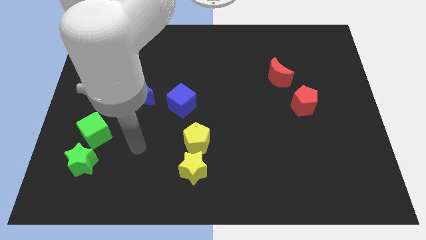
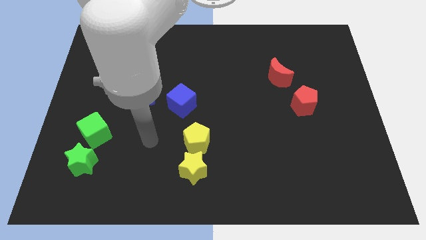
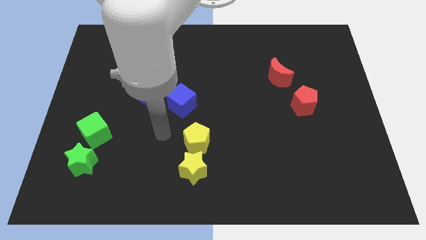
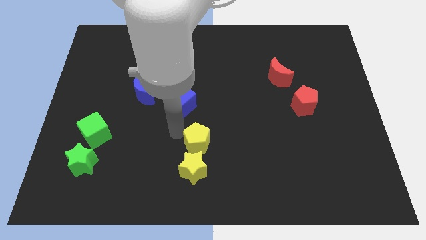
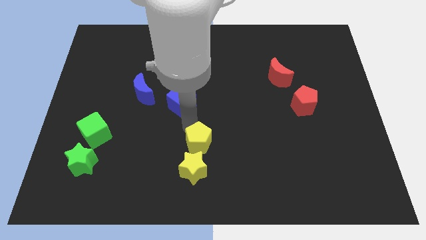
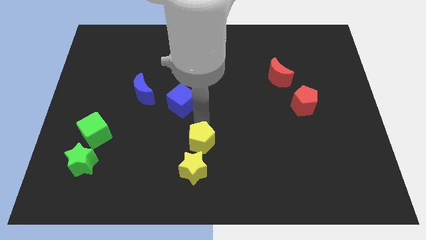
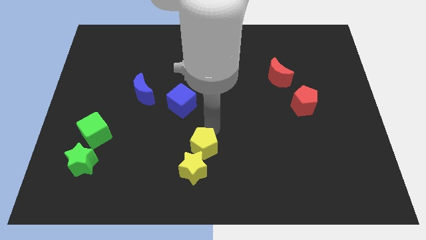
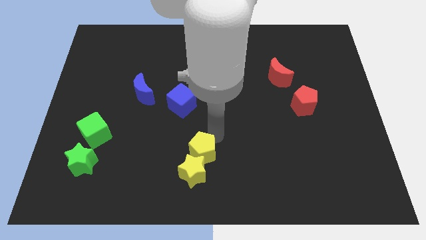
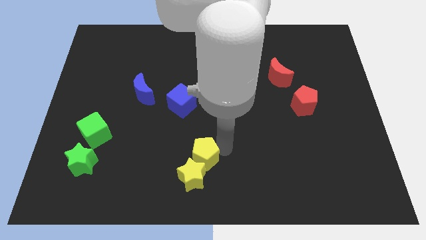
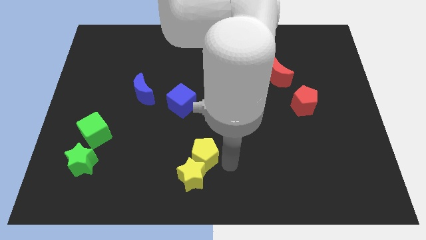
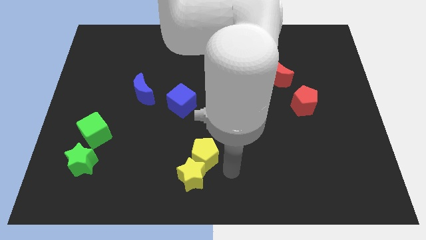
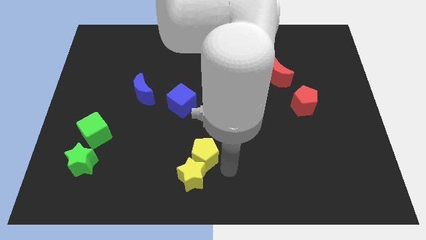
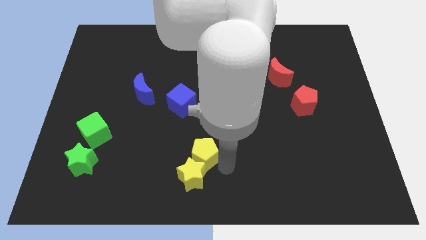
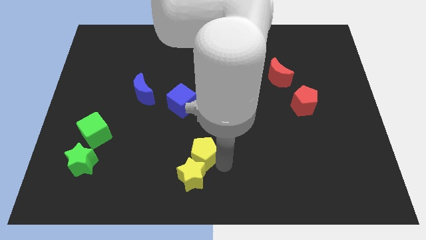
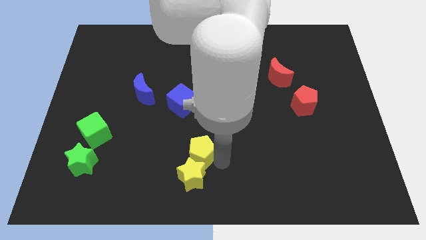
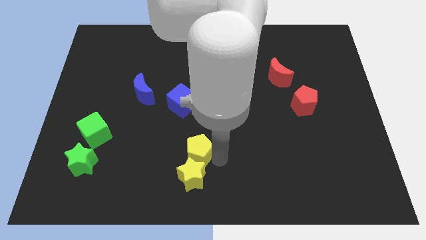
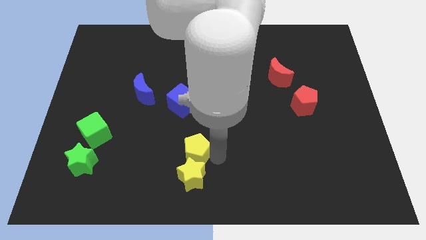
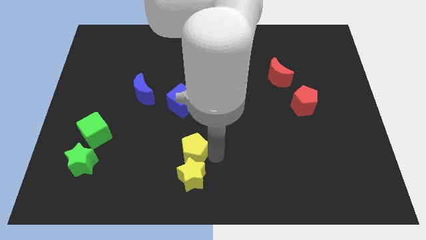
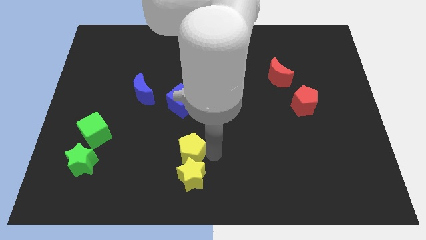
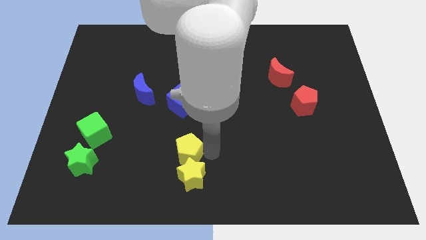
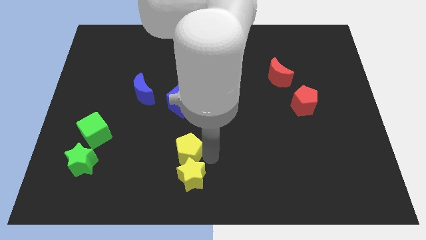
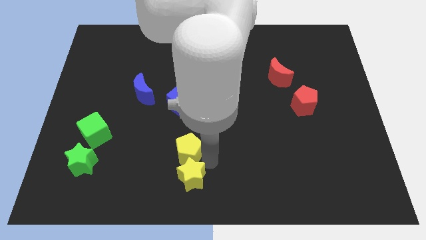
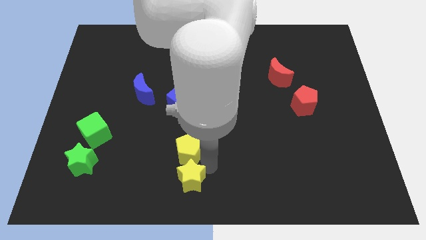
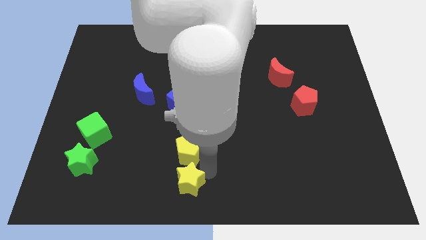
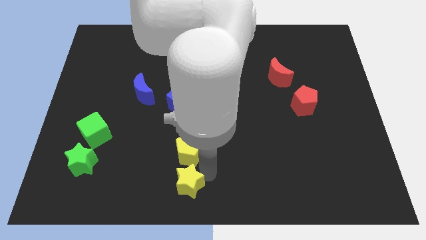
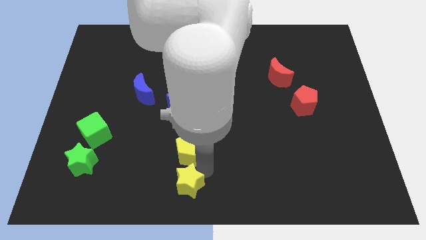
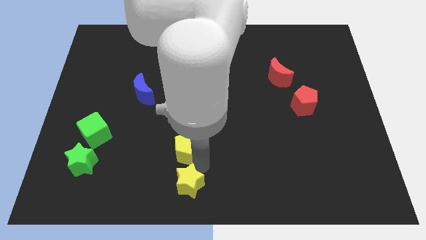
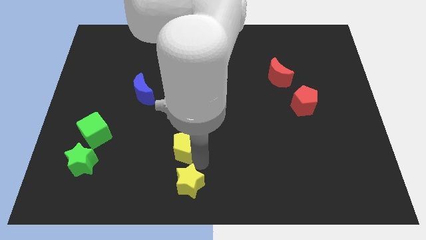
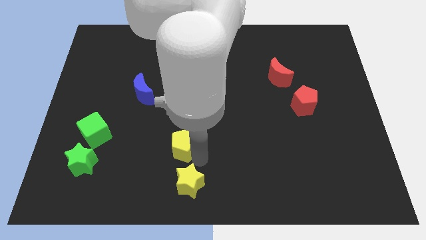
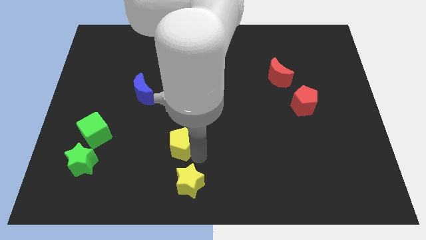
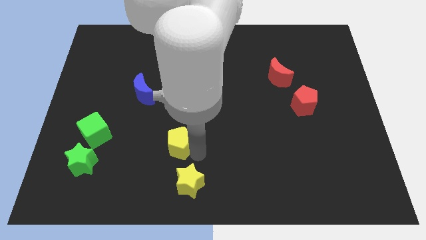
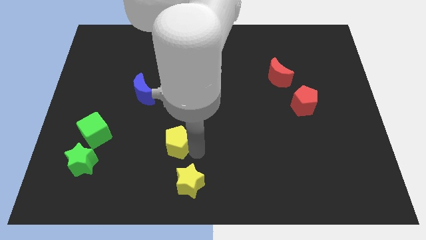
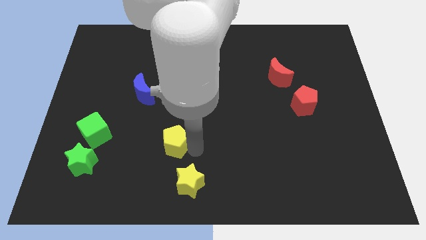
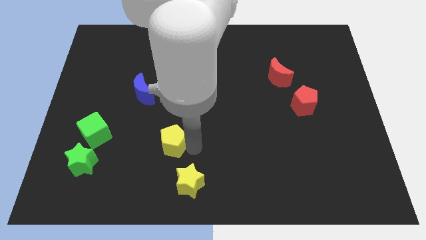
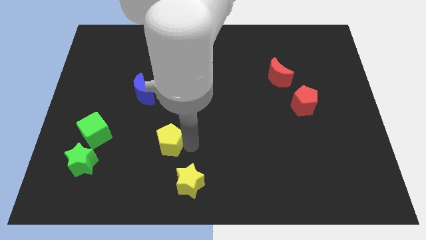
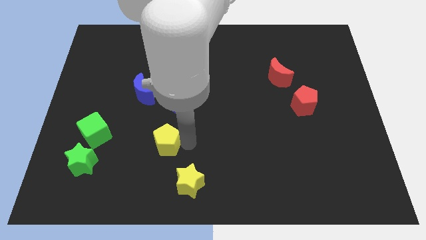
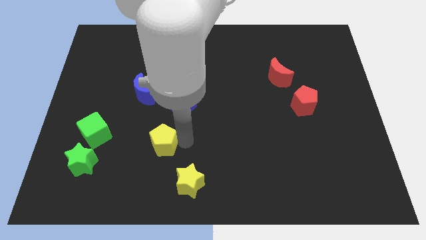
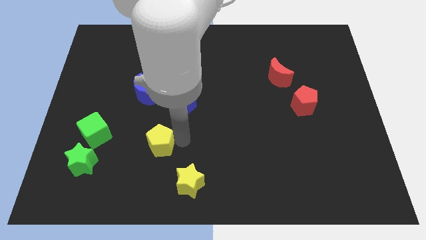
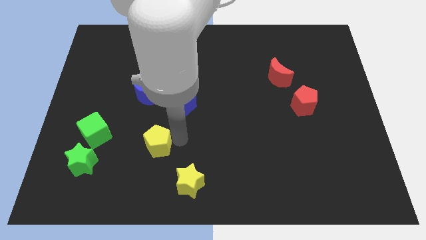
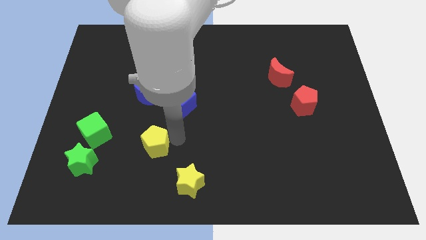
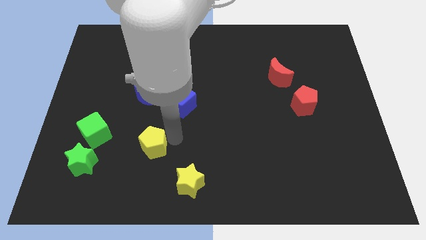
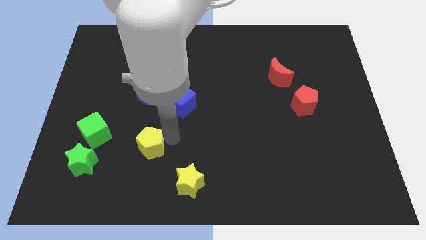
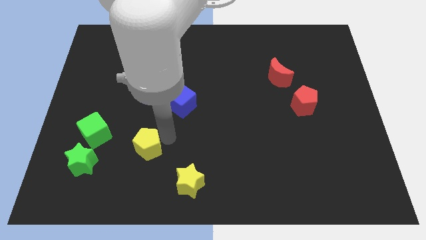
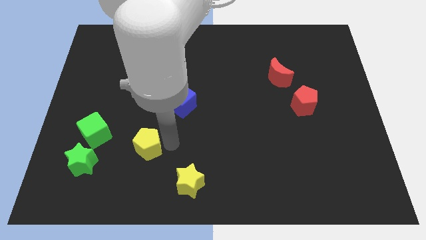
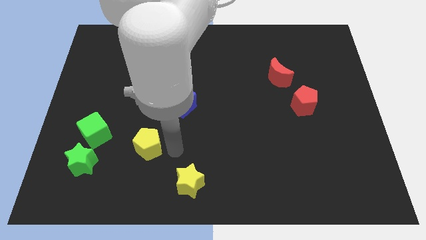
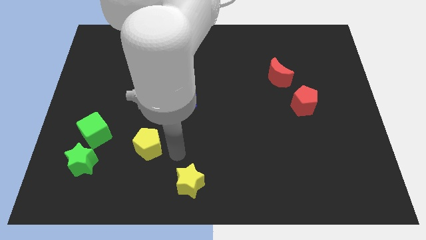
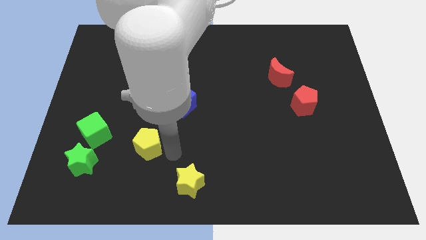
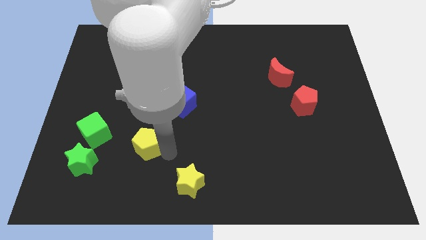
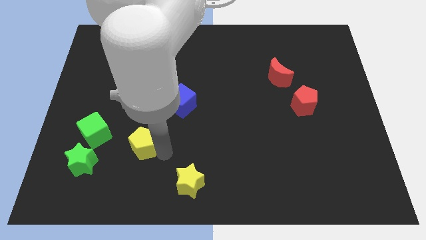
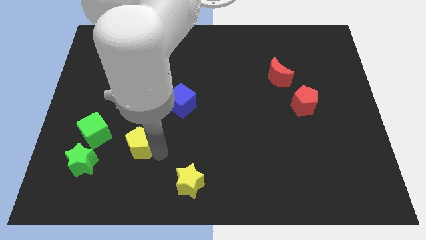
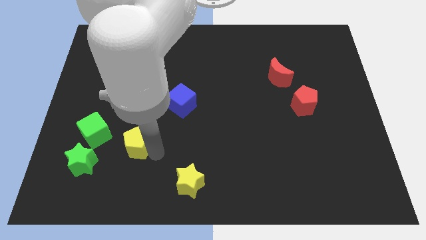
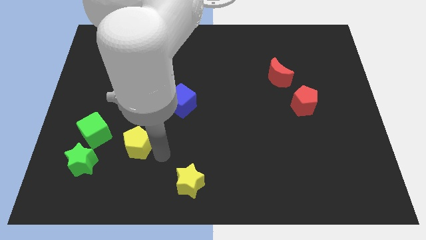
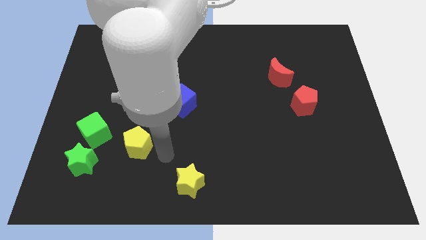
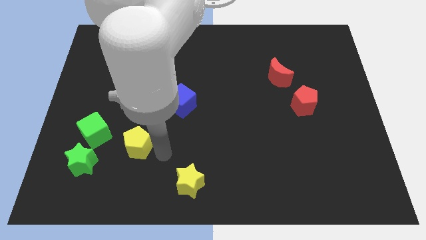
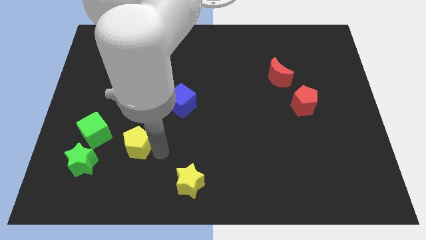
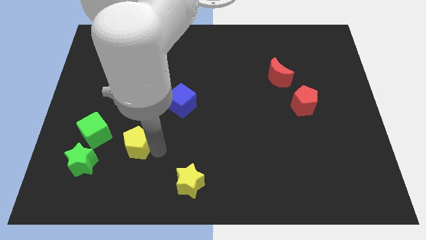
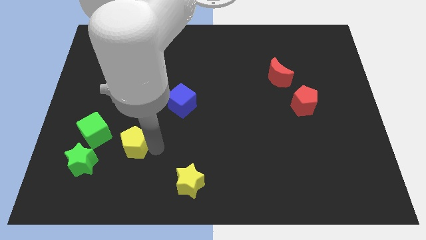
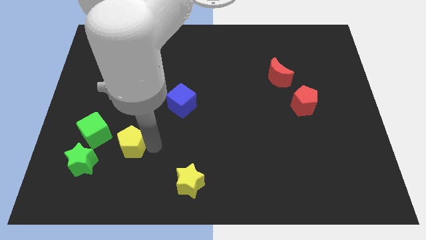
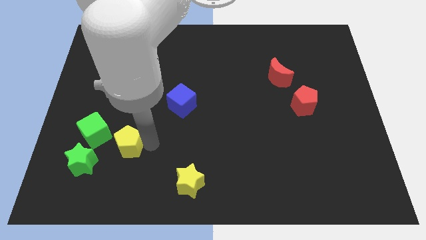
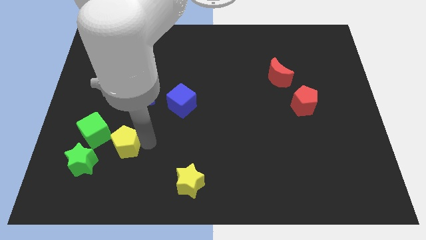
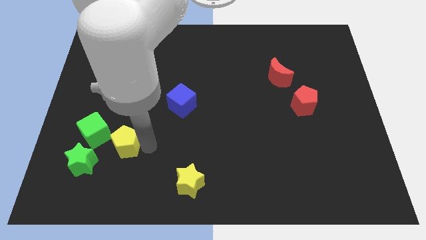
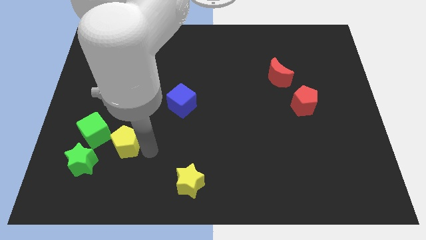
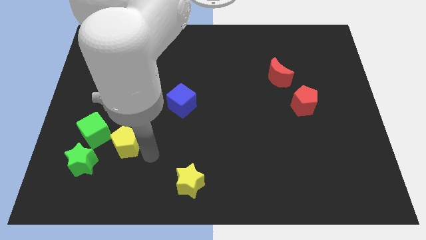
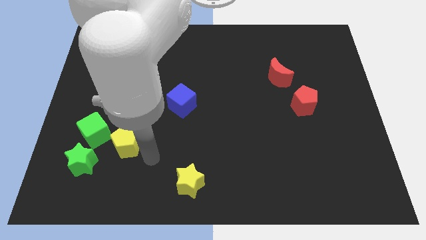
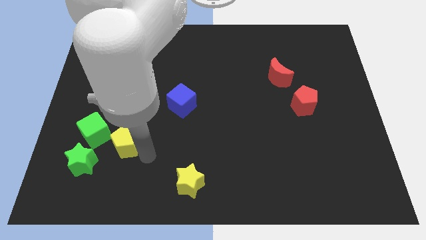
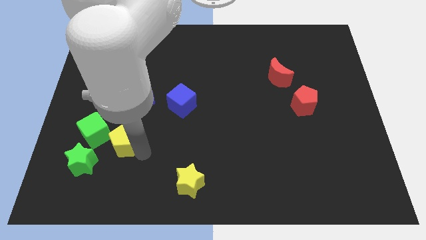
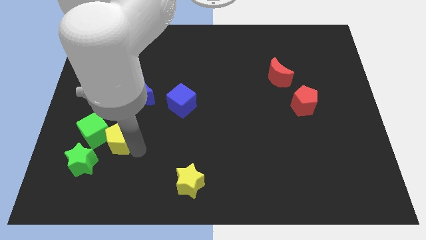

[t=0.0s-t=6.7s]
push the yellow pentagon next to the green cube
